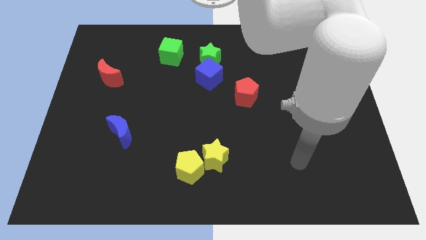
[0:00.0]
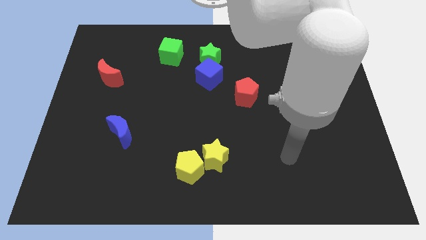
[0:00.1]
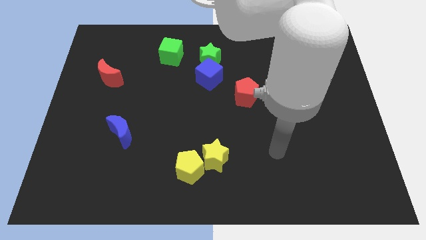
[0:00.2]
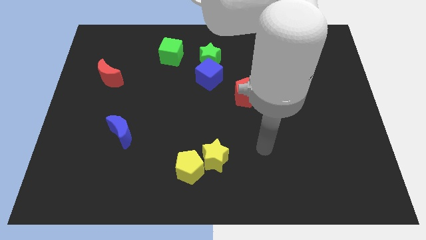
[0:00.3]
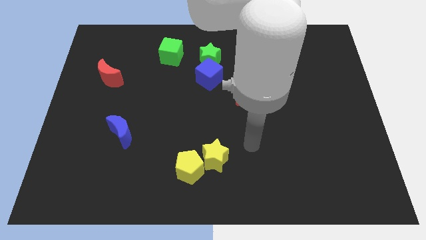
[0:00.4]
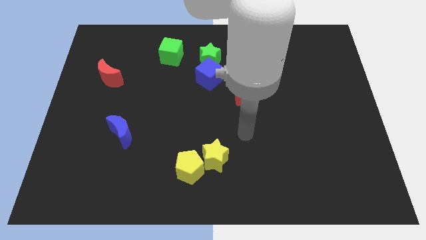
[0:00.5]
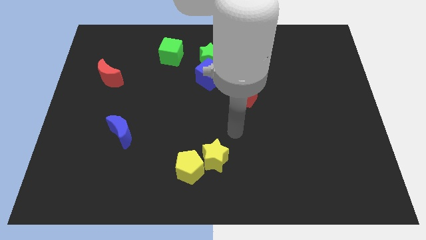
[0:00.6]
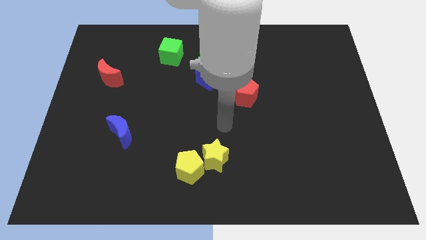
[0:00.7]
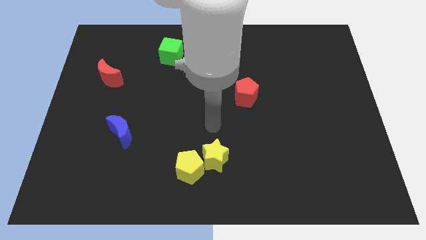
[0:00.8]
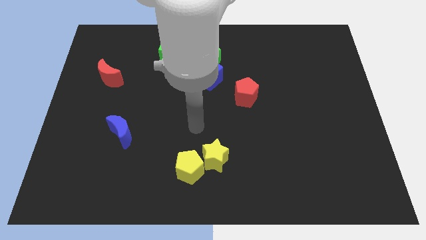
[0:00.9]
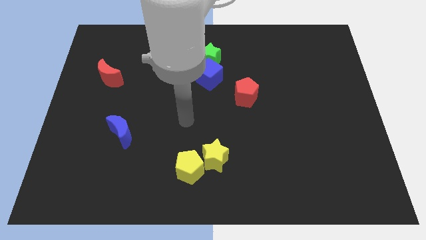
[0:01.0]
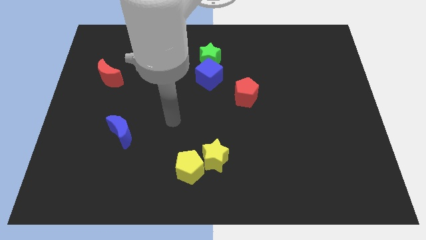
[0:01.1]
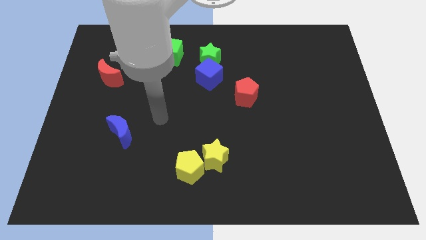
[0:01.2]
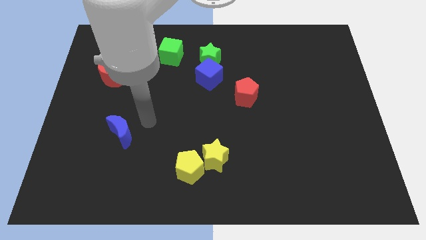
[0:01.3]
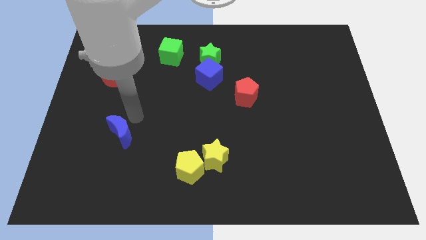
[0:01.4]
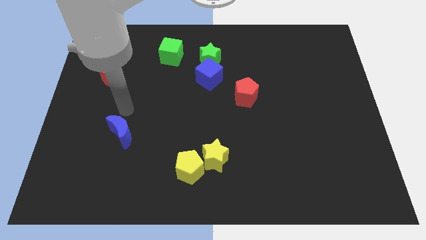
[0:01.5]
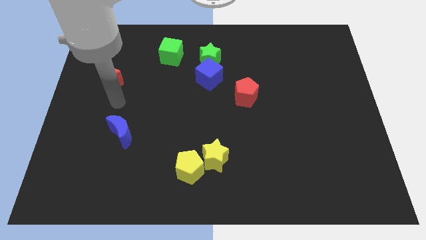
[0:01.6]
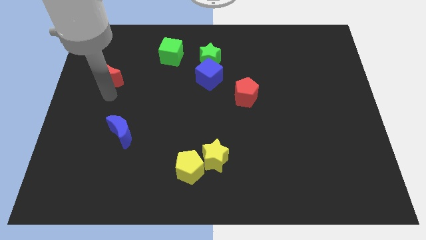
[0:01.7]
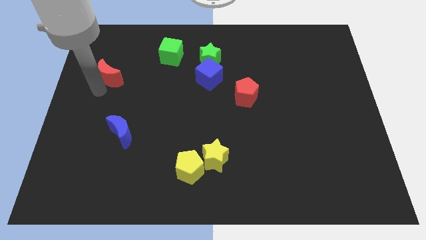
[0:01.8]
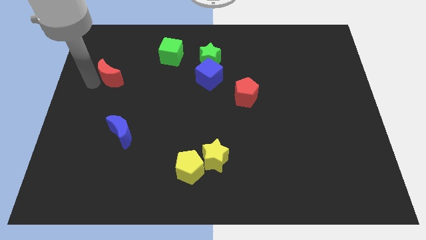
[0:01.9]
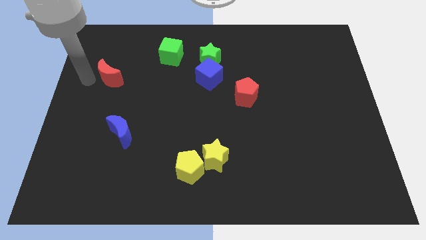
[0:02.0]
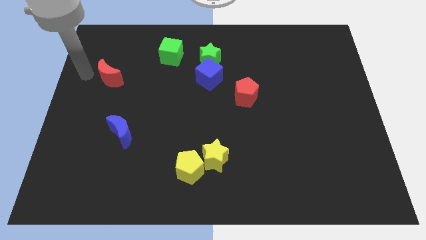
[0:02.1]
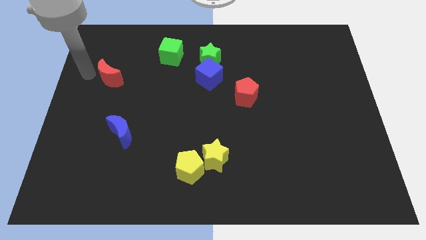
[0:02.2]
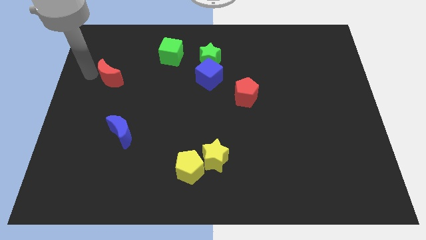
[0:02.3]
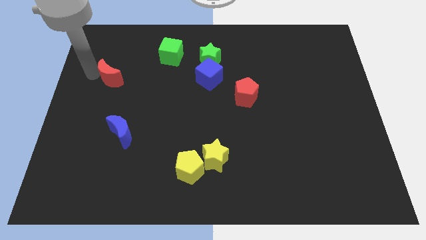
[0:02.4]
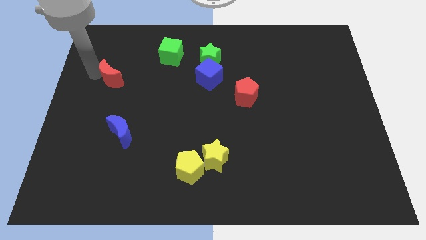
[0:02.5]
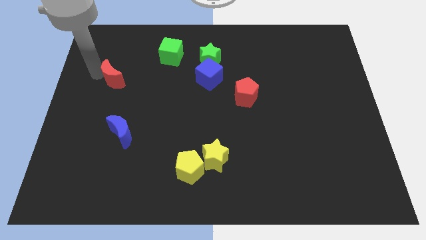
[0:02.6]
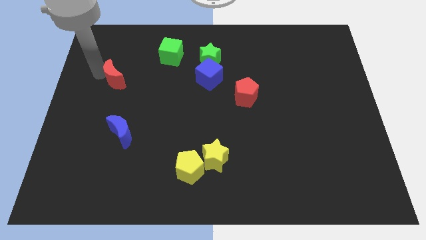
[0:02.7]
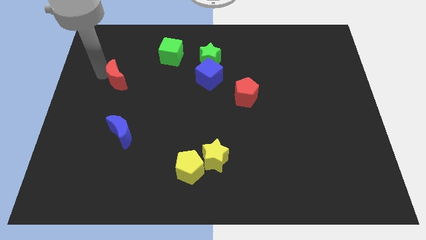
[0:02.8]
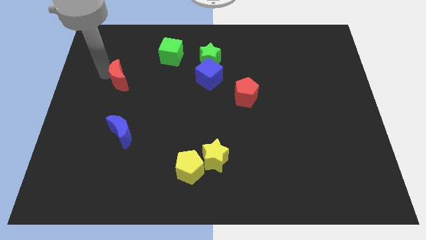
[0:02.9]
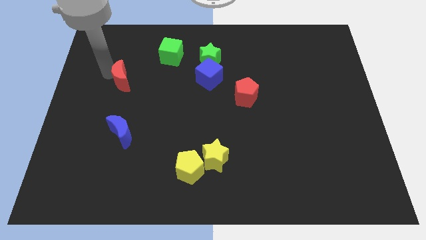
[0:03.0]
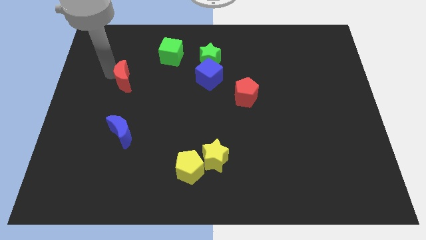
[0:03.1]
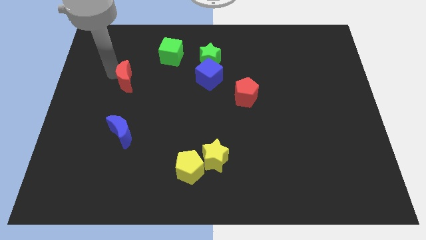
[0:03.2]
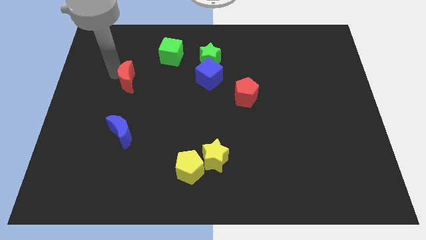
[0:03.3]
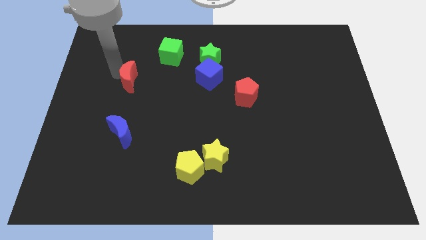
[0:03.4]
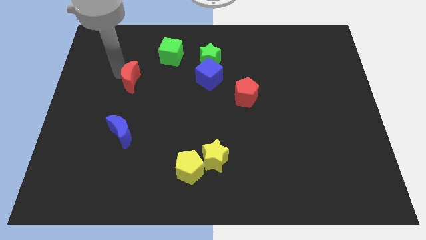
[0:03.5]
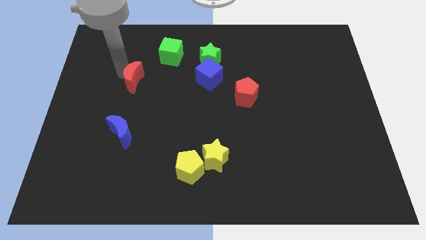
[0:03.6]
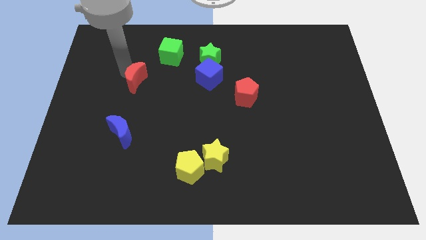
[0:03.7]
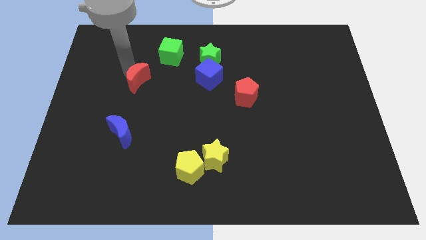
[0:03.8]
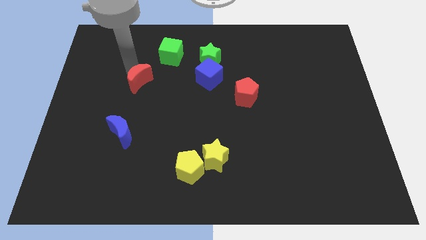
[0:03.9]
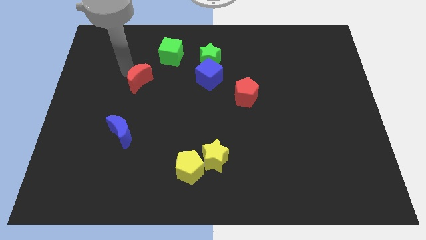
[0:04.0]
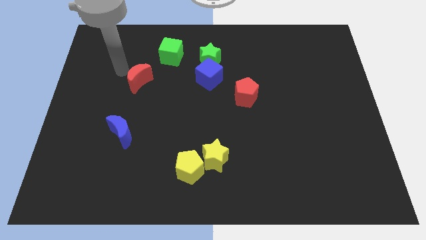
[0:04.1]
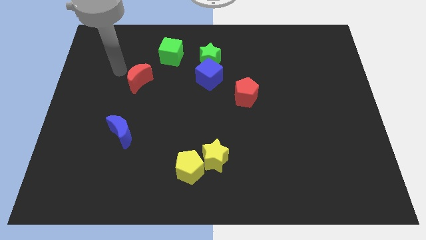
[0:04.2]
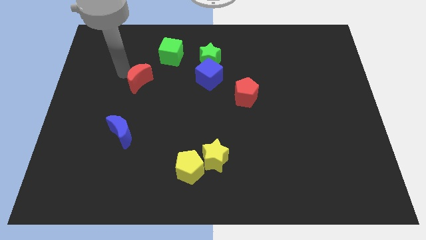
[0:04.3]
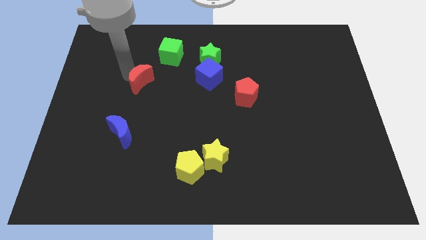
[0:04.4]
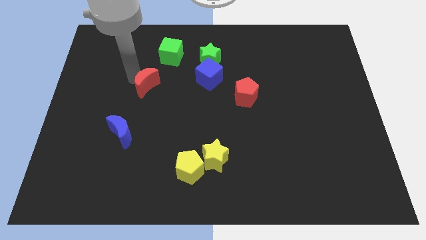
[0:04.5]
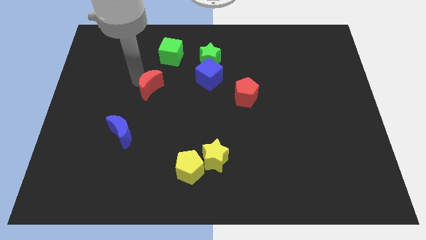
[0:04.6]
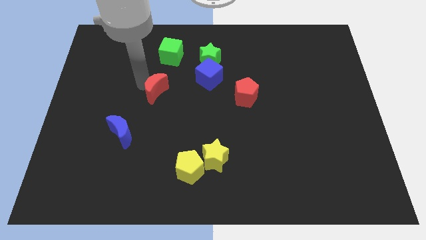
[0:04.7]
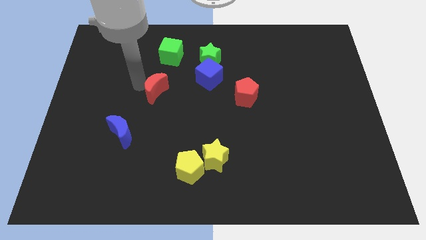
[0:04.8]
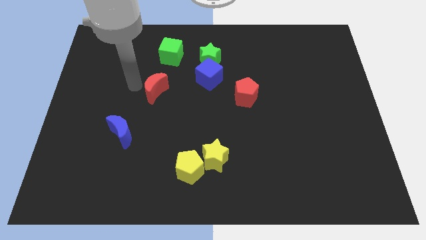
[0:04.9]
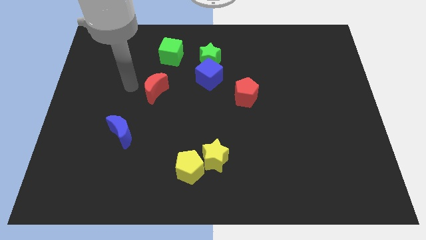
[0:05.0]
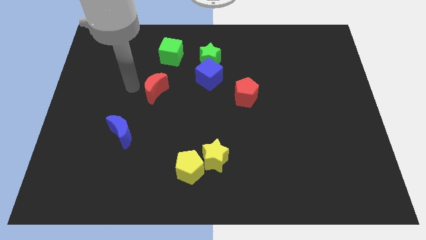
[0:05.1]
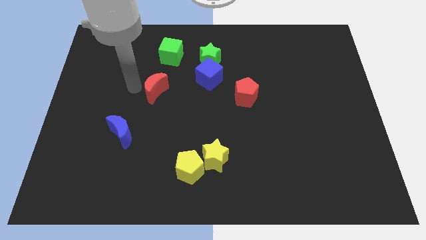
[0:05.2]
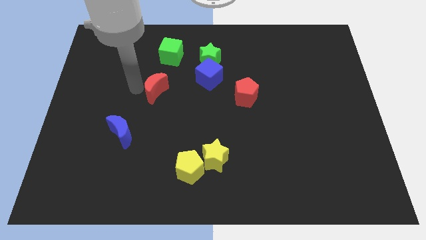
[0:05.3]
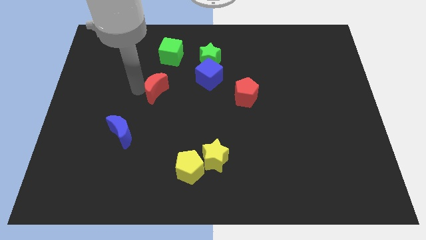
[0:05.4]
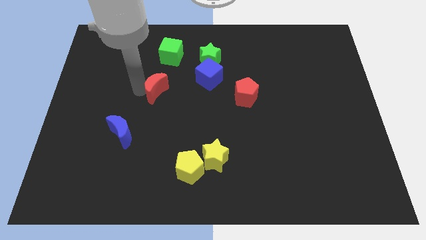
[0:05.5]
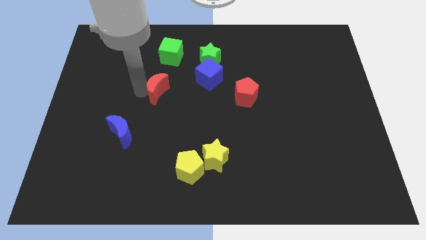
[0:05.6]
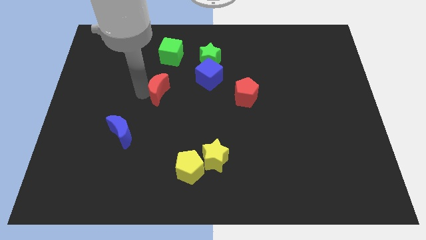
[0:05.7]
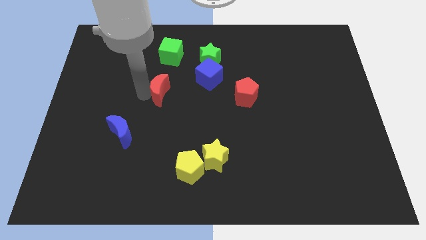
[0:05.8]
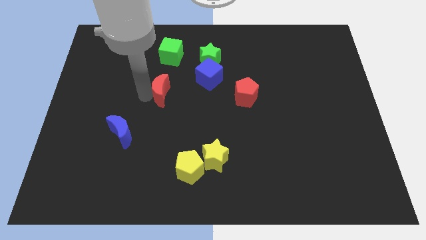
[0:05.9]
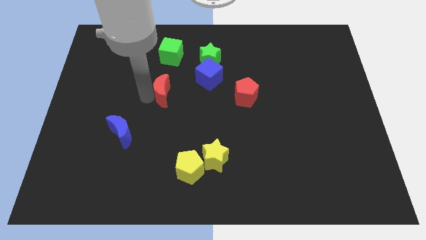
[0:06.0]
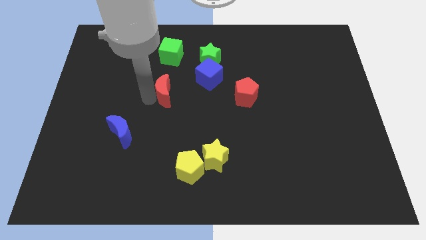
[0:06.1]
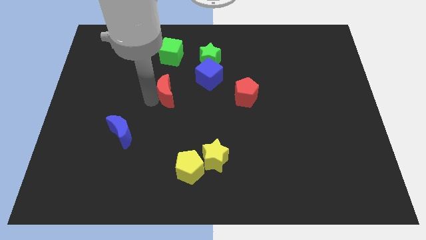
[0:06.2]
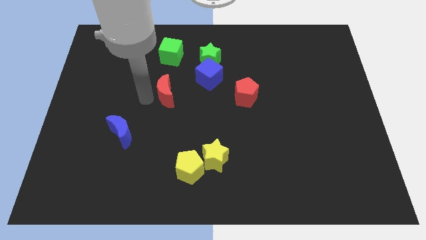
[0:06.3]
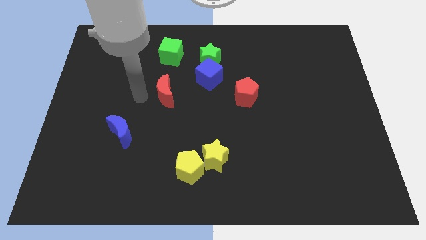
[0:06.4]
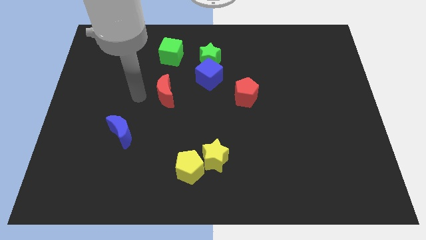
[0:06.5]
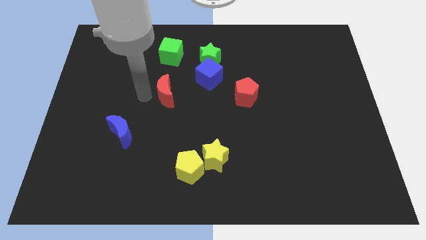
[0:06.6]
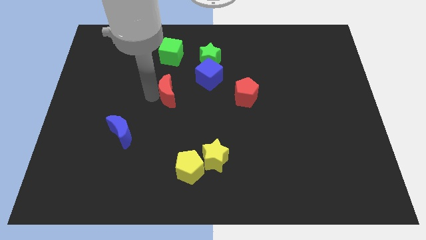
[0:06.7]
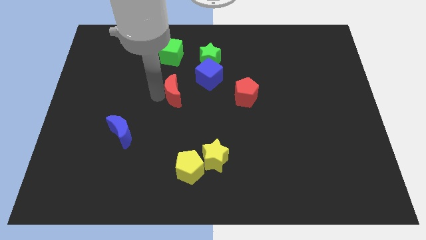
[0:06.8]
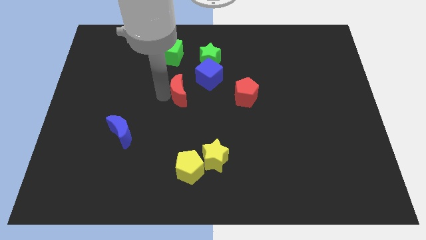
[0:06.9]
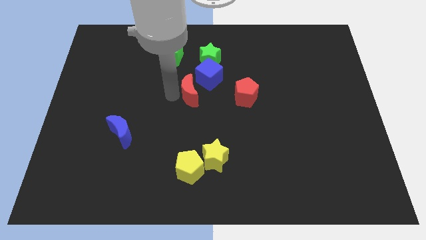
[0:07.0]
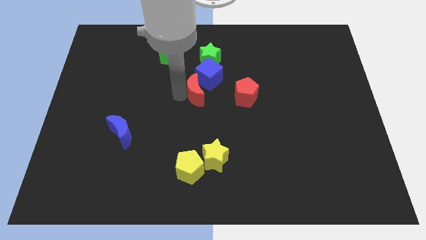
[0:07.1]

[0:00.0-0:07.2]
slide the red moon right

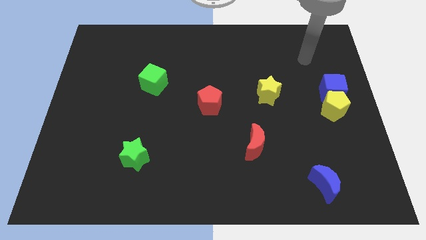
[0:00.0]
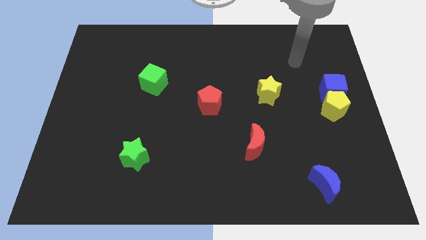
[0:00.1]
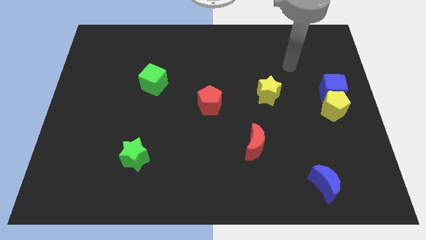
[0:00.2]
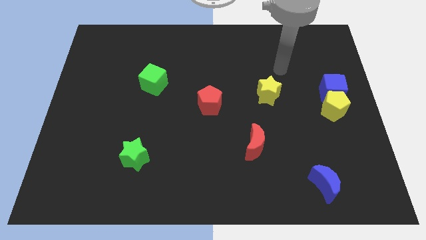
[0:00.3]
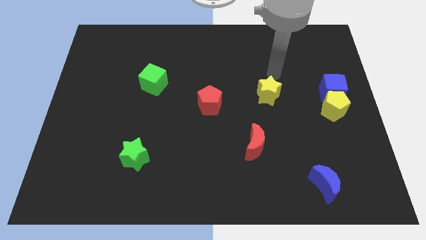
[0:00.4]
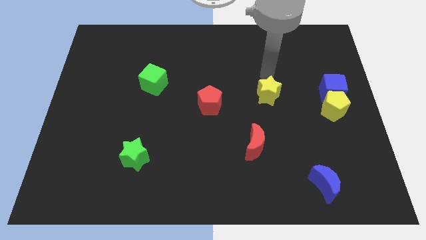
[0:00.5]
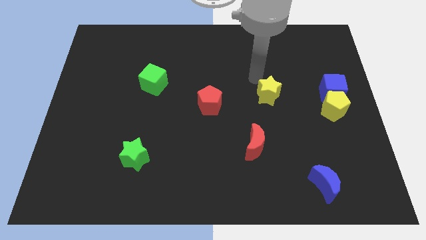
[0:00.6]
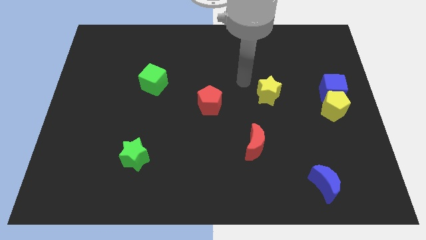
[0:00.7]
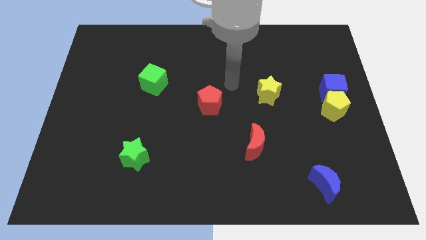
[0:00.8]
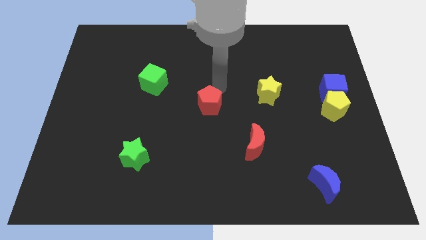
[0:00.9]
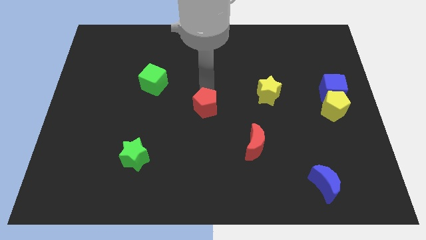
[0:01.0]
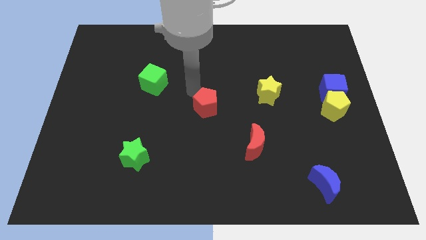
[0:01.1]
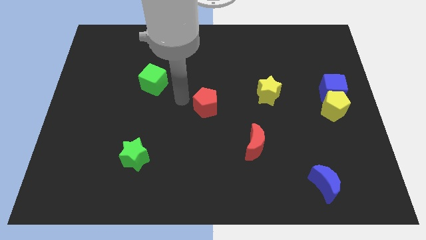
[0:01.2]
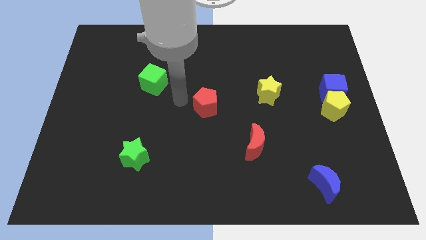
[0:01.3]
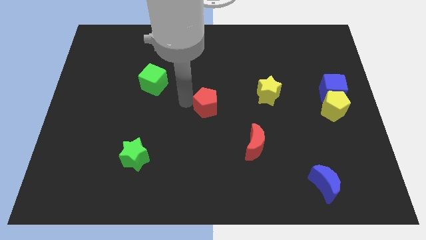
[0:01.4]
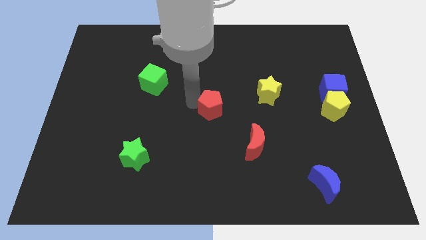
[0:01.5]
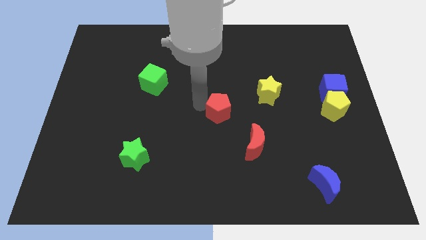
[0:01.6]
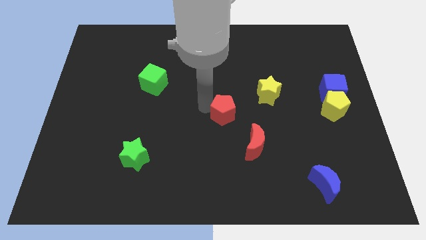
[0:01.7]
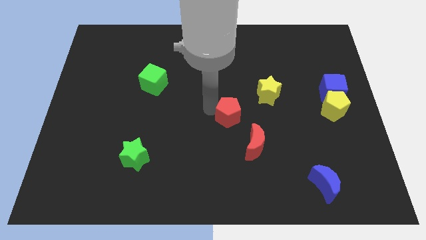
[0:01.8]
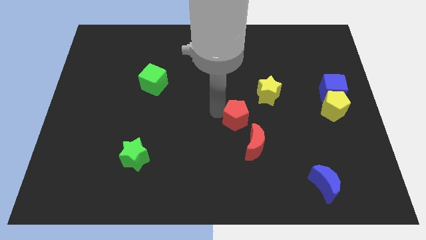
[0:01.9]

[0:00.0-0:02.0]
push the red pentagon downwards and right a bit
